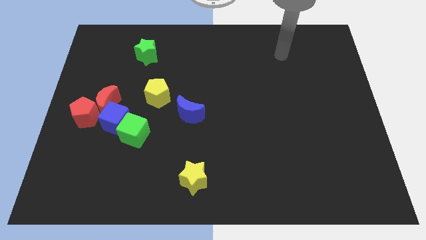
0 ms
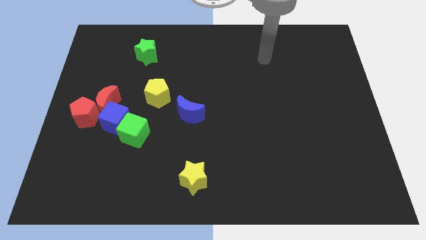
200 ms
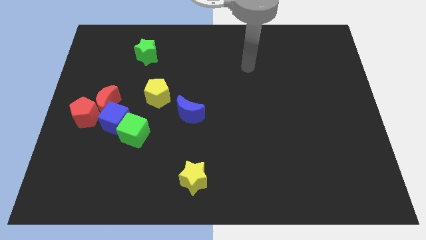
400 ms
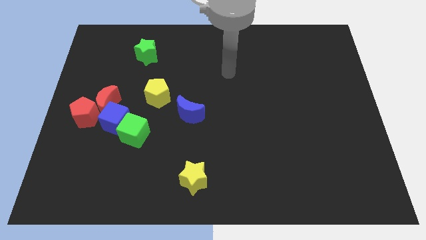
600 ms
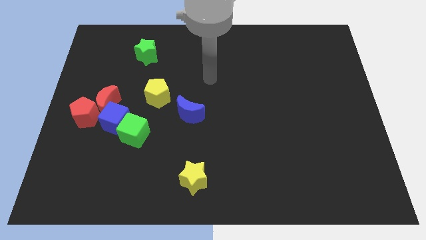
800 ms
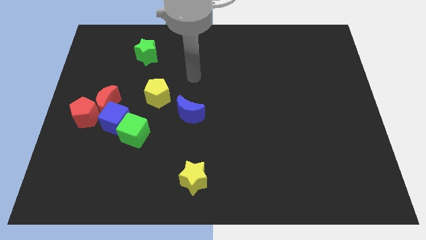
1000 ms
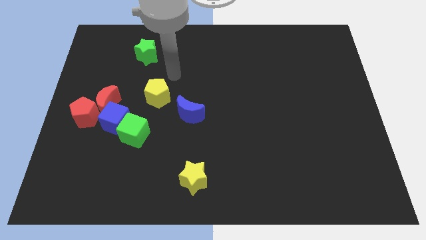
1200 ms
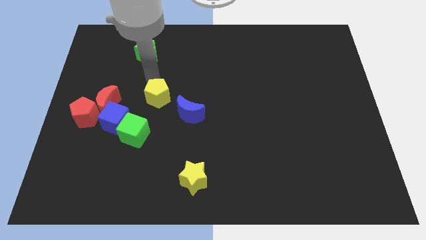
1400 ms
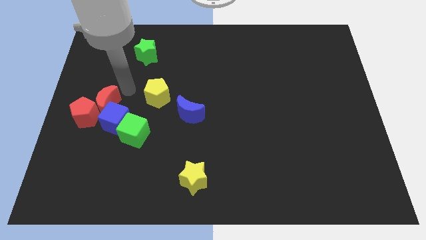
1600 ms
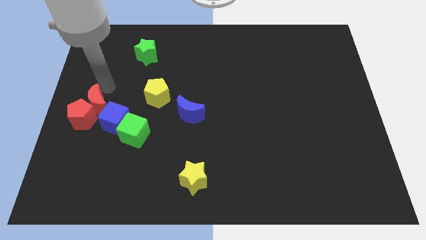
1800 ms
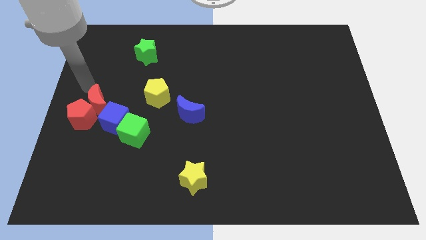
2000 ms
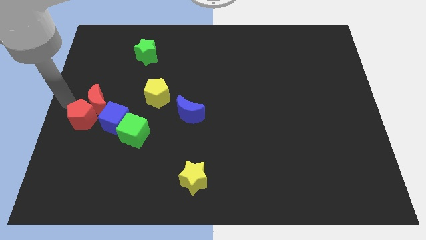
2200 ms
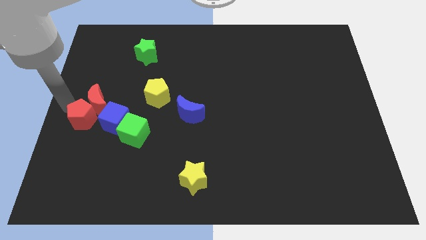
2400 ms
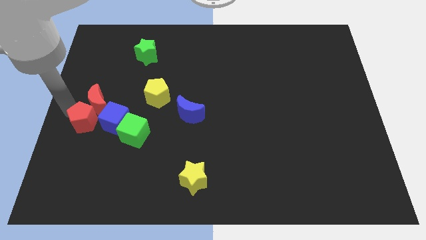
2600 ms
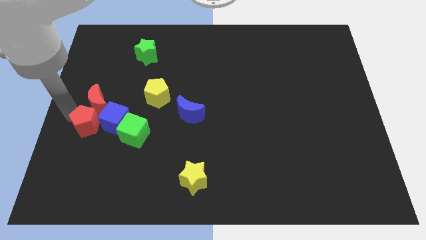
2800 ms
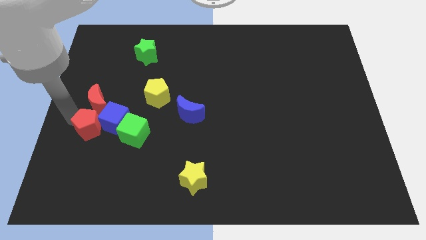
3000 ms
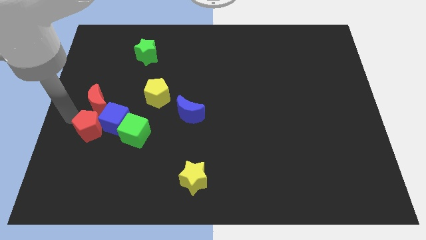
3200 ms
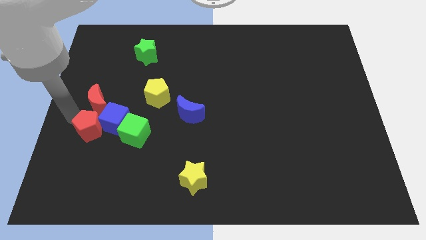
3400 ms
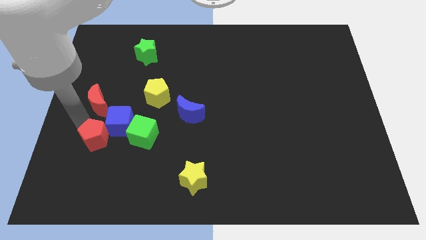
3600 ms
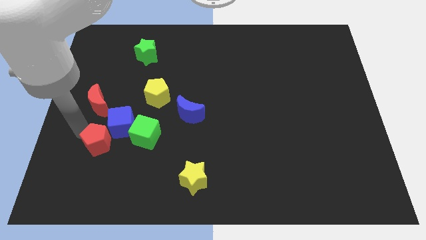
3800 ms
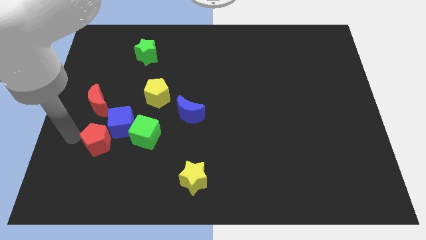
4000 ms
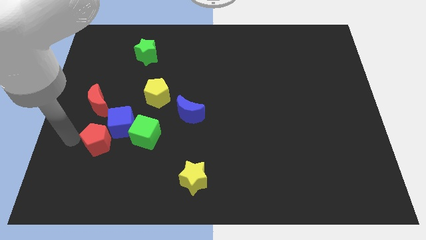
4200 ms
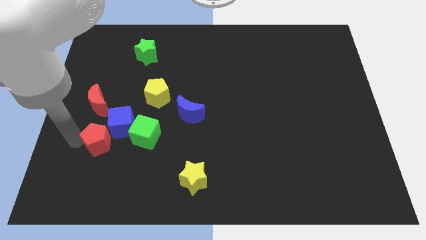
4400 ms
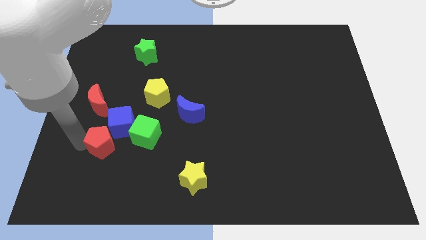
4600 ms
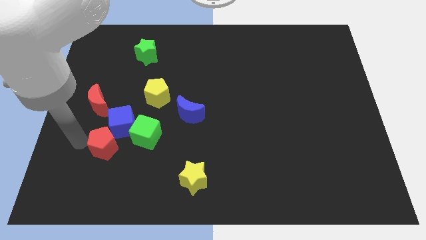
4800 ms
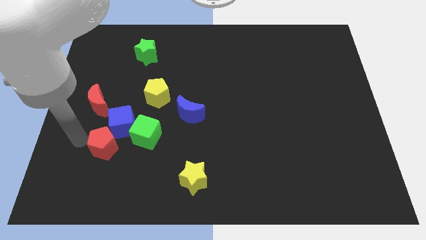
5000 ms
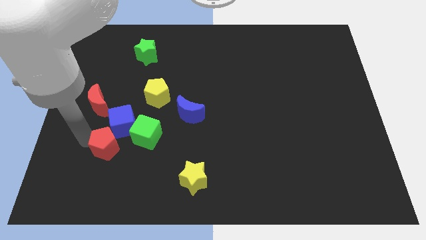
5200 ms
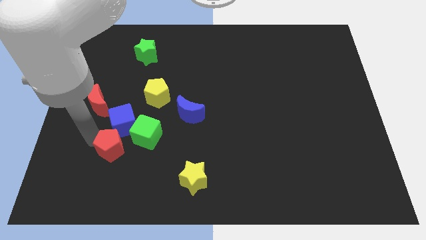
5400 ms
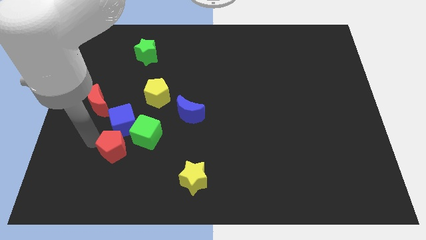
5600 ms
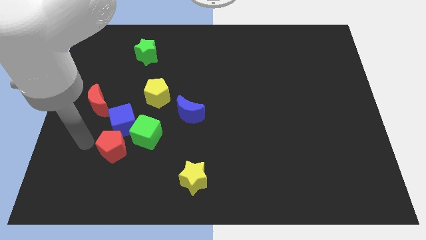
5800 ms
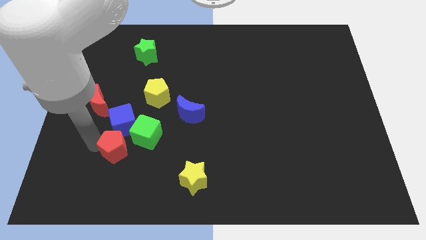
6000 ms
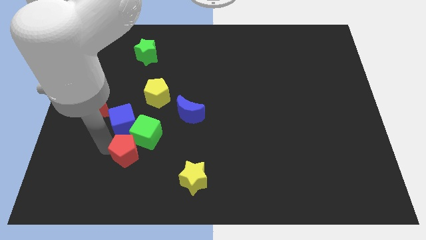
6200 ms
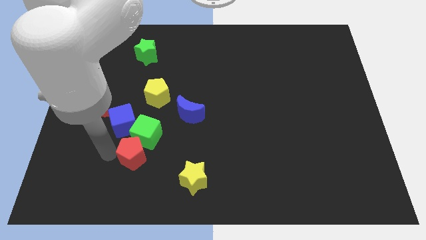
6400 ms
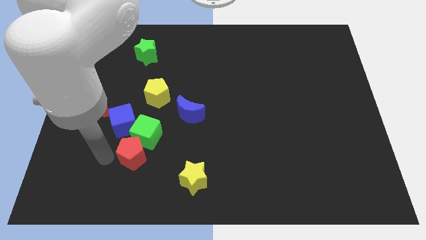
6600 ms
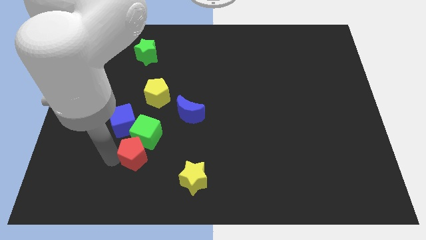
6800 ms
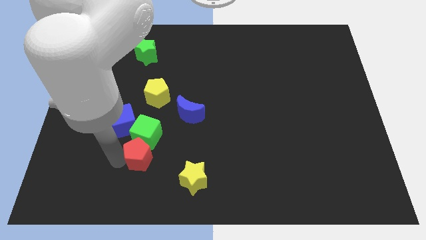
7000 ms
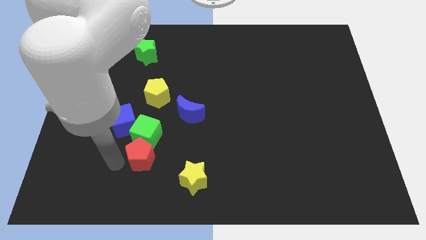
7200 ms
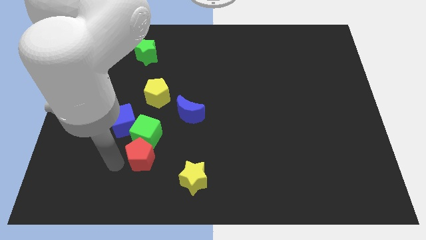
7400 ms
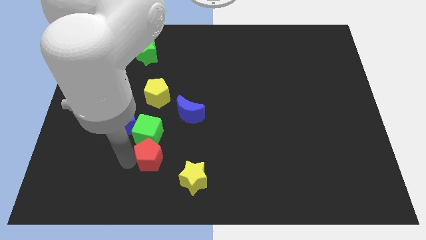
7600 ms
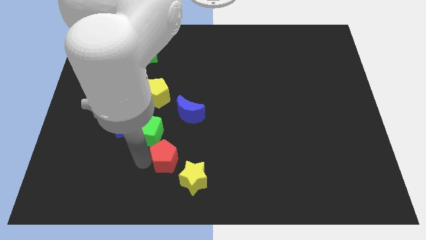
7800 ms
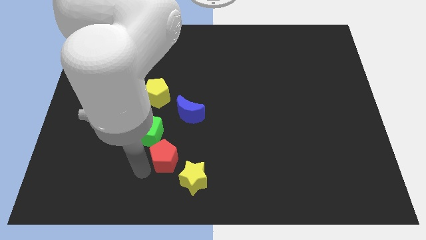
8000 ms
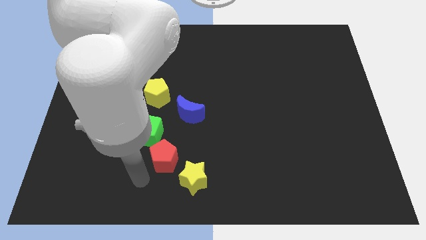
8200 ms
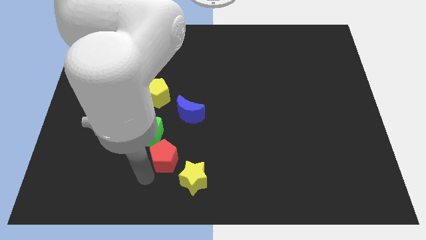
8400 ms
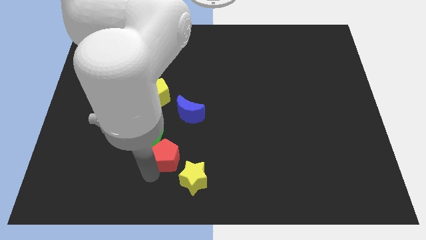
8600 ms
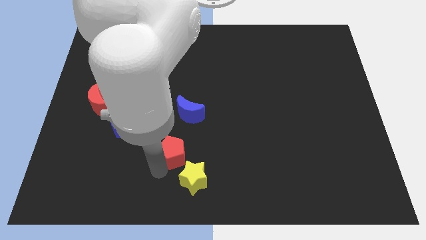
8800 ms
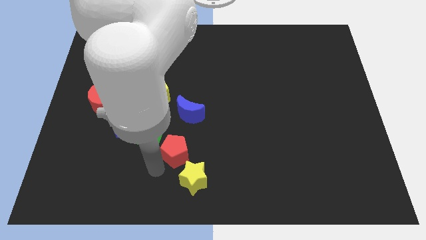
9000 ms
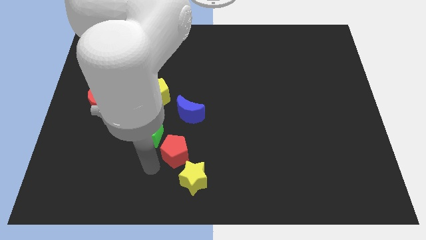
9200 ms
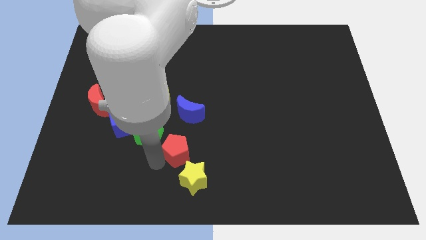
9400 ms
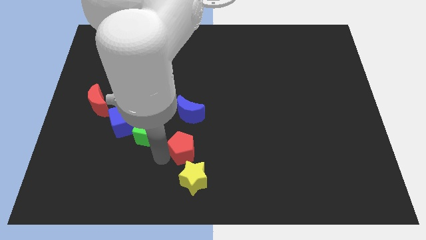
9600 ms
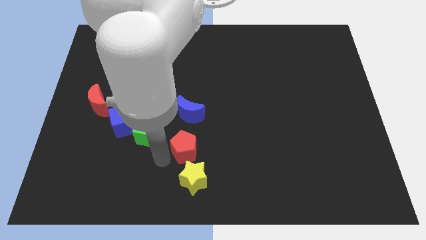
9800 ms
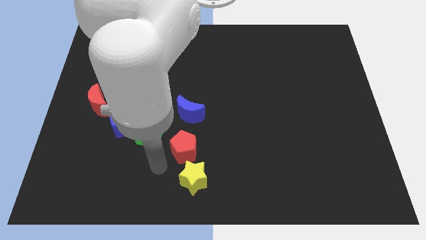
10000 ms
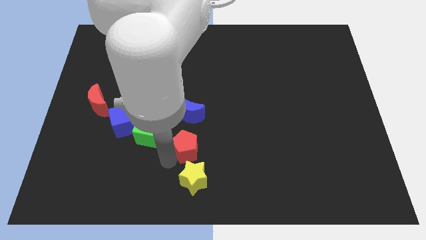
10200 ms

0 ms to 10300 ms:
push the red pentagon right

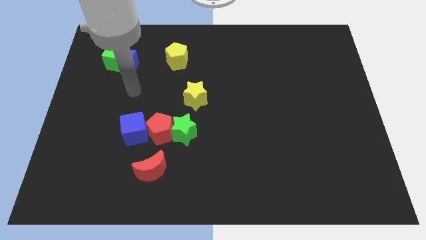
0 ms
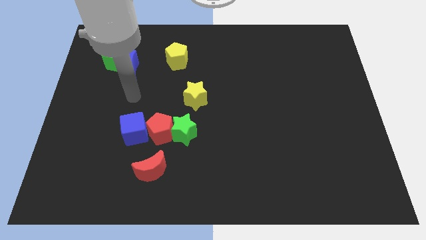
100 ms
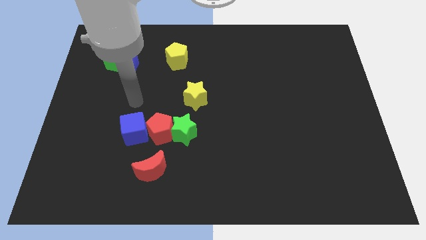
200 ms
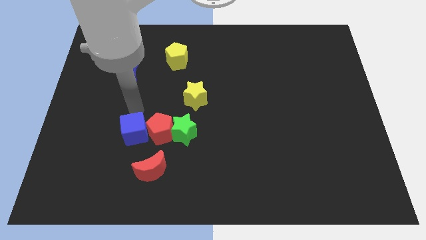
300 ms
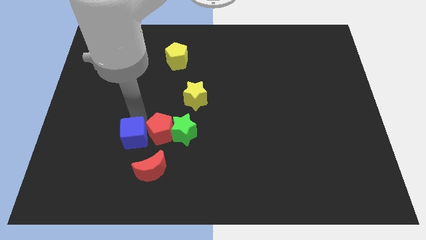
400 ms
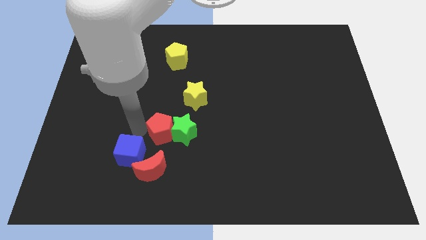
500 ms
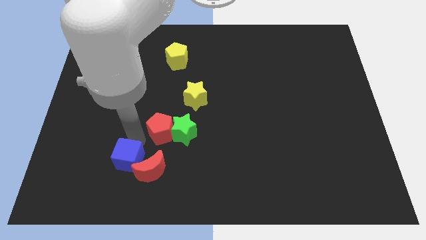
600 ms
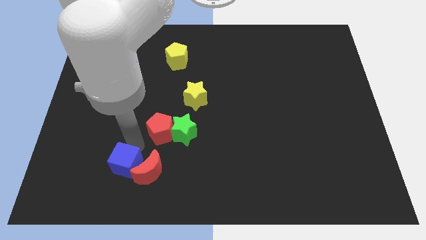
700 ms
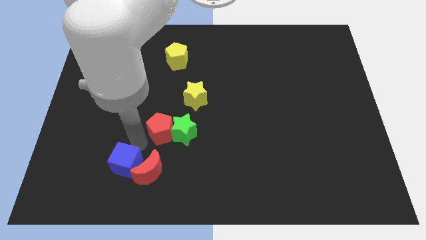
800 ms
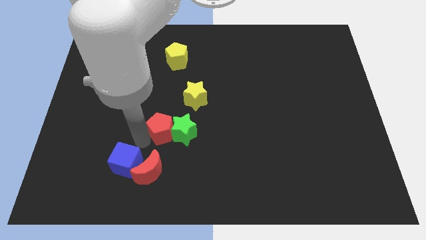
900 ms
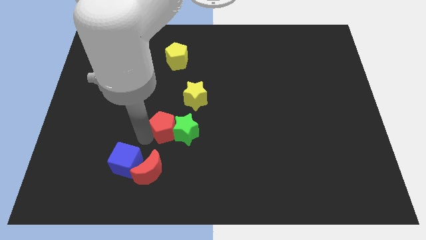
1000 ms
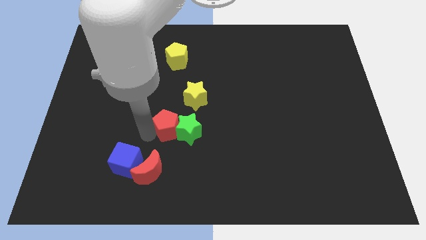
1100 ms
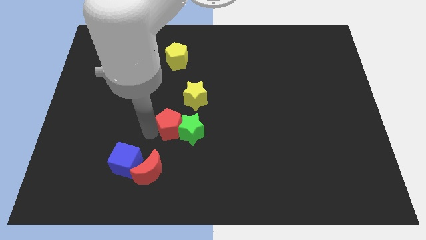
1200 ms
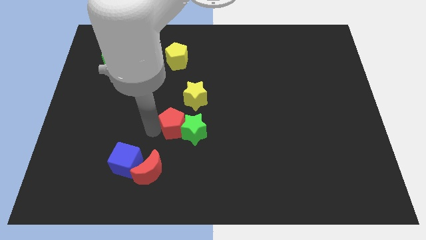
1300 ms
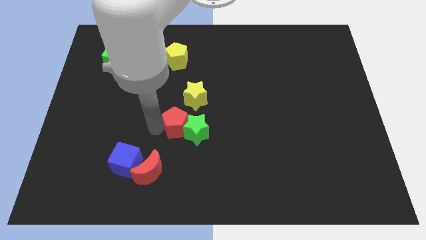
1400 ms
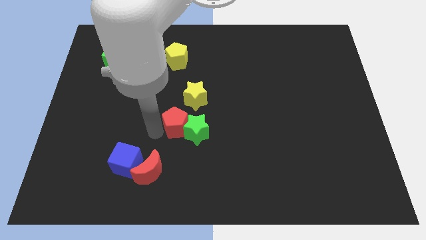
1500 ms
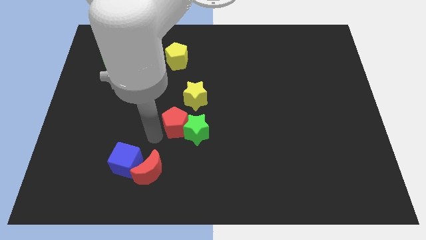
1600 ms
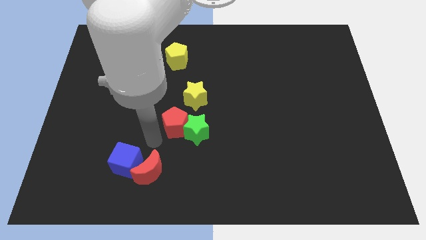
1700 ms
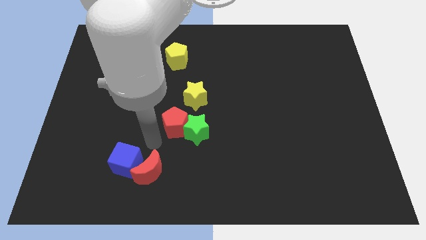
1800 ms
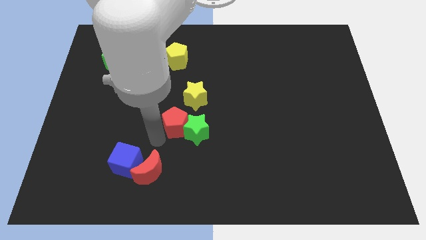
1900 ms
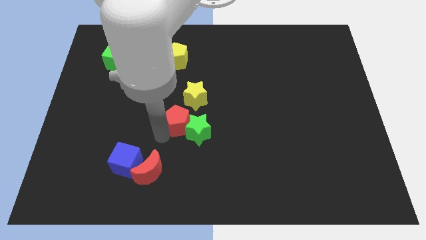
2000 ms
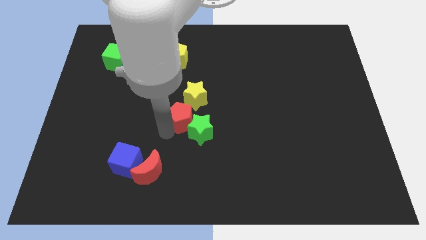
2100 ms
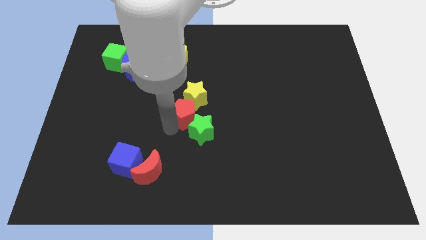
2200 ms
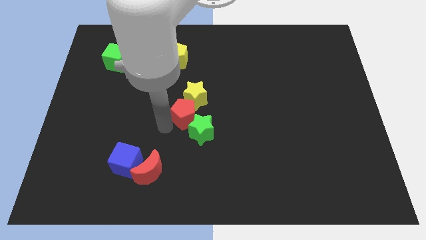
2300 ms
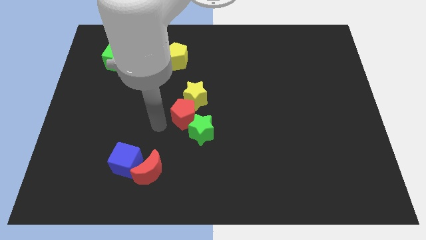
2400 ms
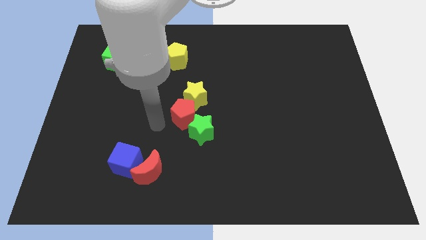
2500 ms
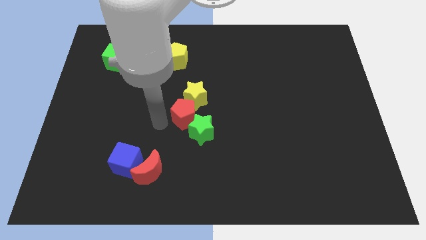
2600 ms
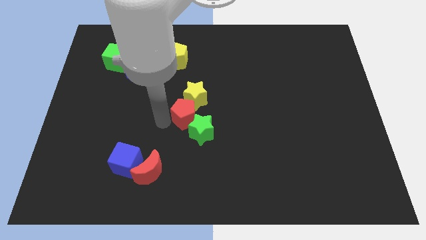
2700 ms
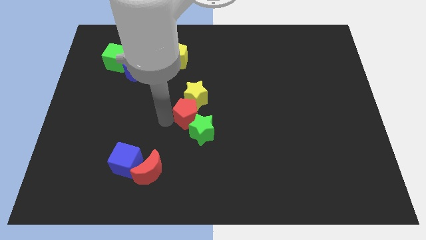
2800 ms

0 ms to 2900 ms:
slide the red pentagon a bit diagonally upwards and right
